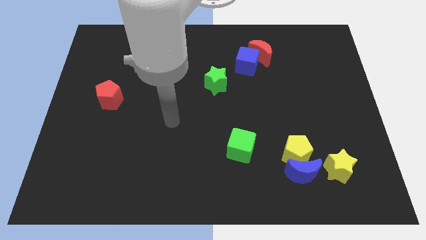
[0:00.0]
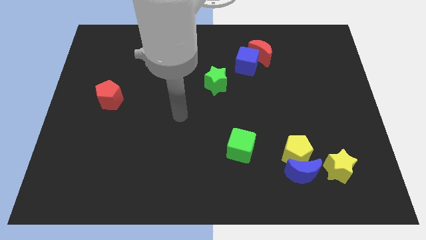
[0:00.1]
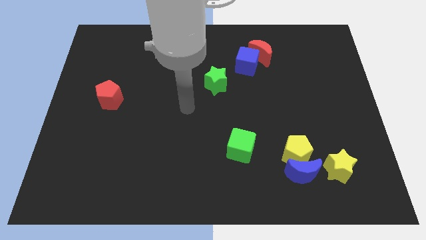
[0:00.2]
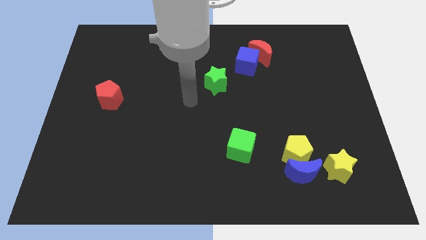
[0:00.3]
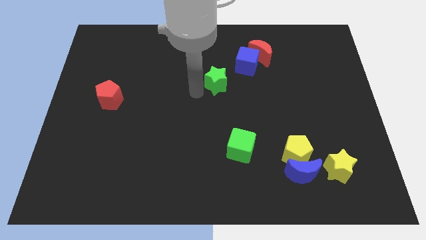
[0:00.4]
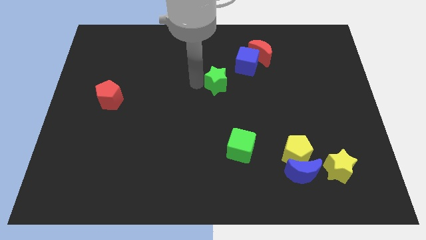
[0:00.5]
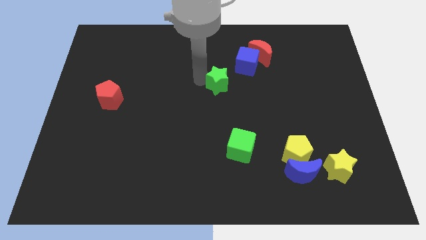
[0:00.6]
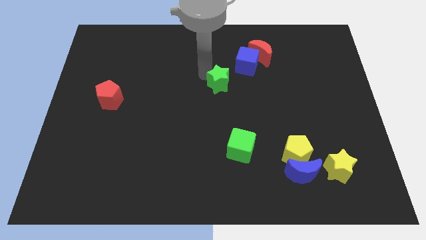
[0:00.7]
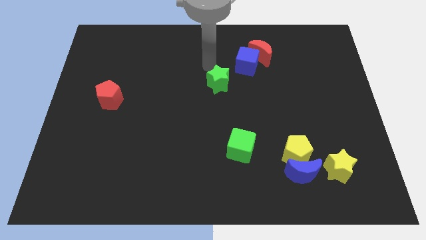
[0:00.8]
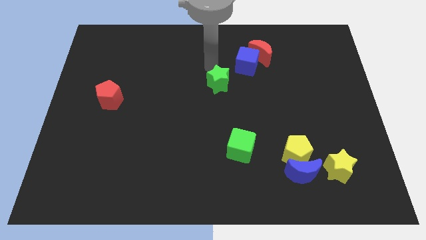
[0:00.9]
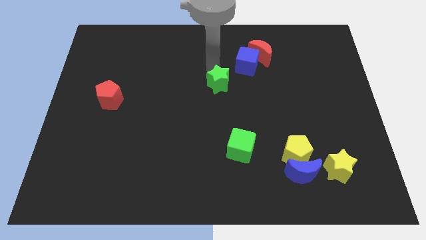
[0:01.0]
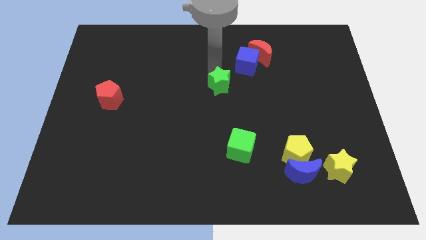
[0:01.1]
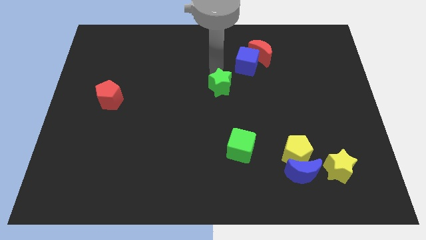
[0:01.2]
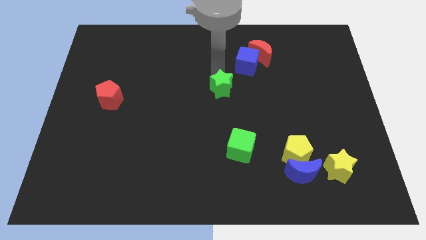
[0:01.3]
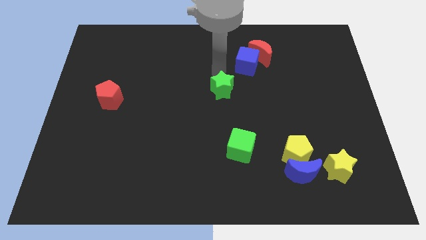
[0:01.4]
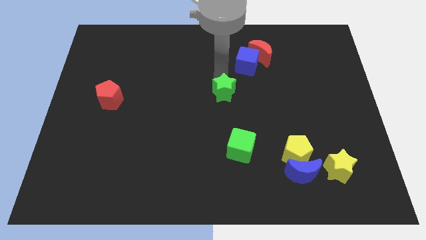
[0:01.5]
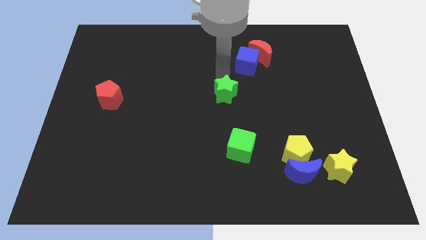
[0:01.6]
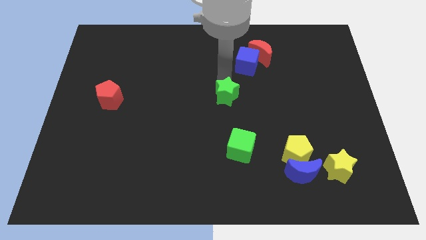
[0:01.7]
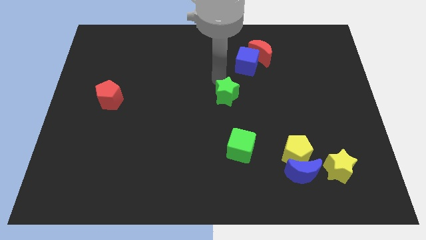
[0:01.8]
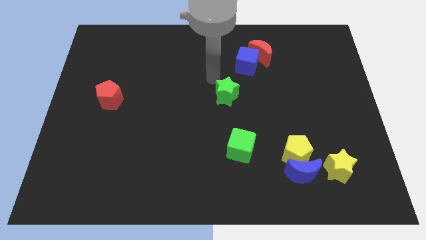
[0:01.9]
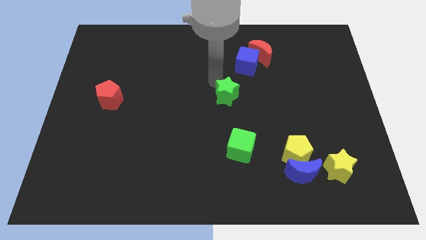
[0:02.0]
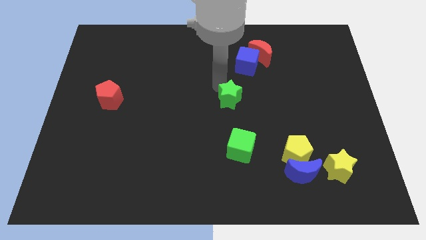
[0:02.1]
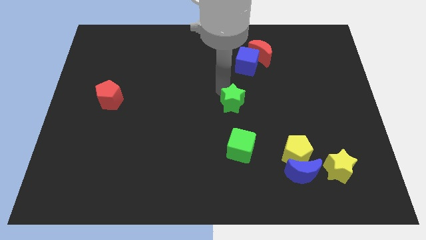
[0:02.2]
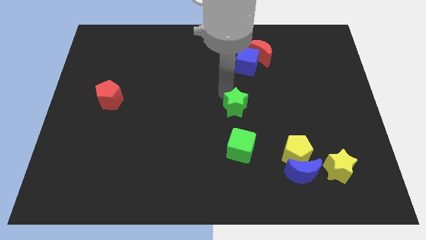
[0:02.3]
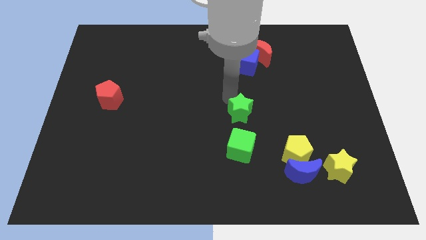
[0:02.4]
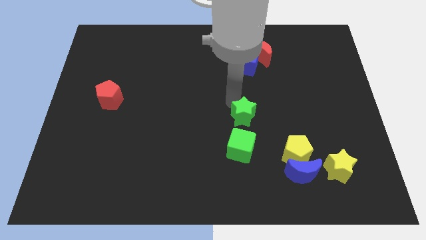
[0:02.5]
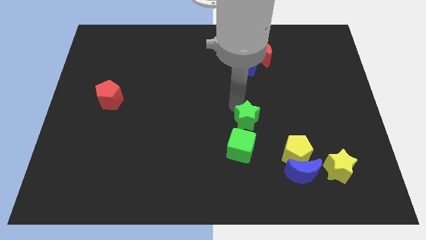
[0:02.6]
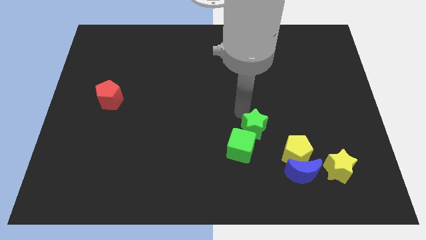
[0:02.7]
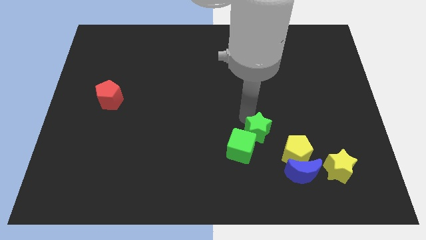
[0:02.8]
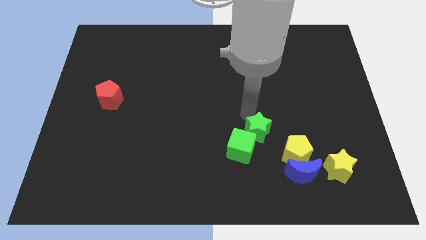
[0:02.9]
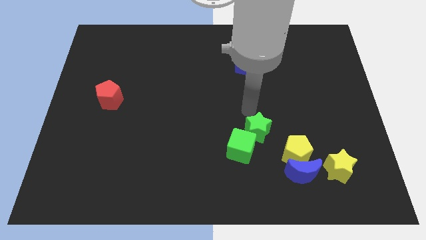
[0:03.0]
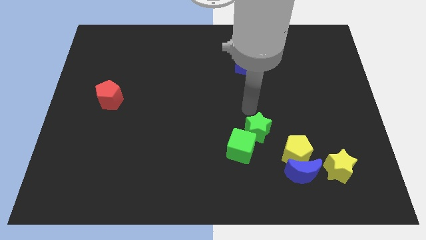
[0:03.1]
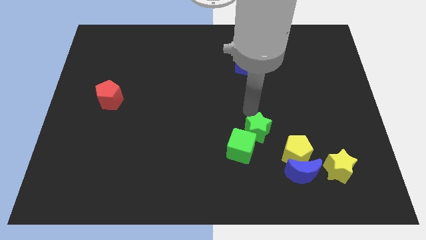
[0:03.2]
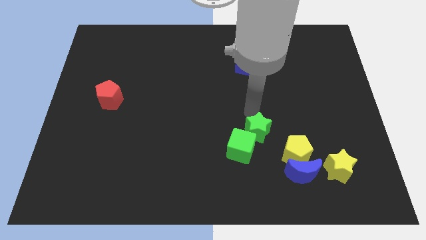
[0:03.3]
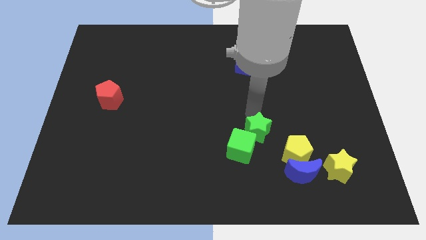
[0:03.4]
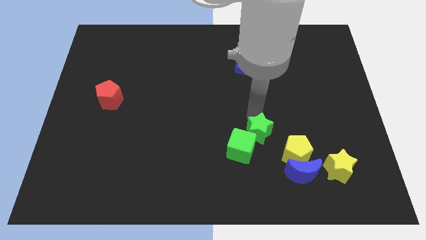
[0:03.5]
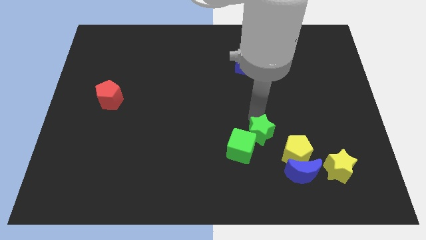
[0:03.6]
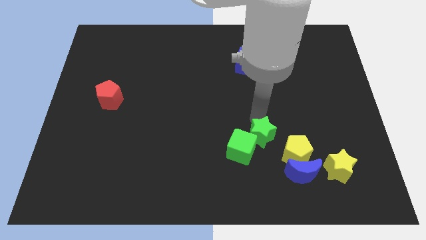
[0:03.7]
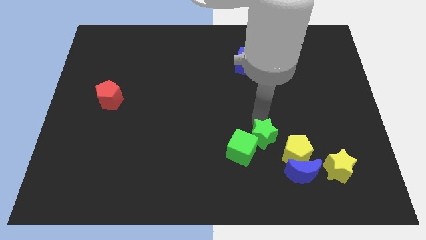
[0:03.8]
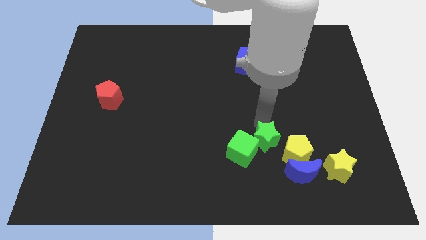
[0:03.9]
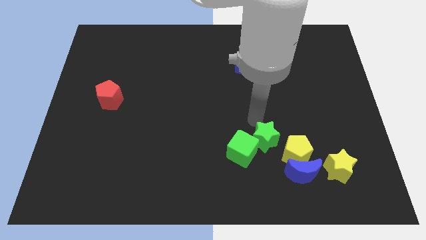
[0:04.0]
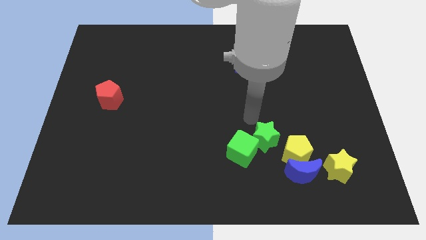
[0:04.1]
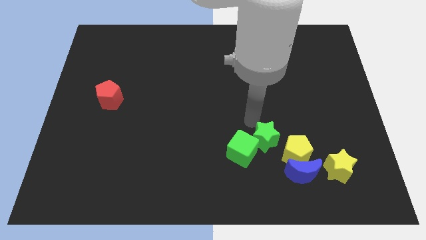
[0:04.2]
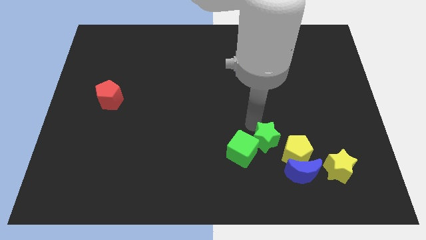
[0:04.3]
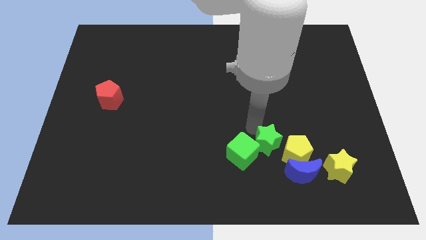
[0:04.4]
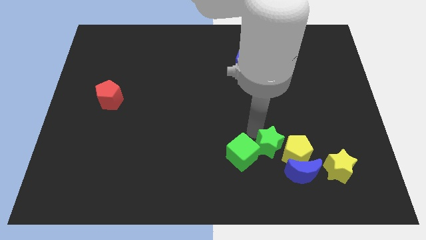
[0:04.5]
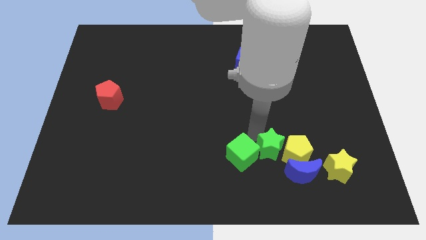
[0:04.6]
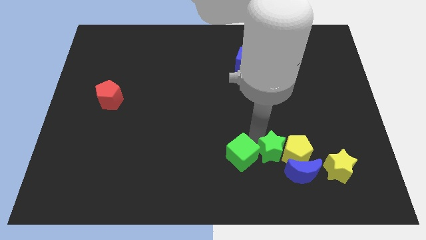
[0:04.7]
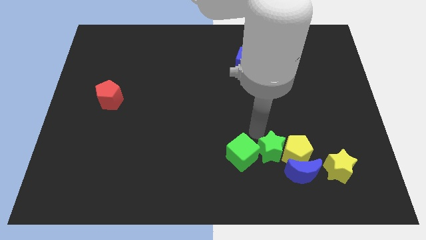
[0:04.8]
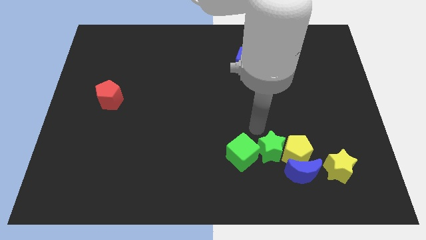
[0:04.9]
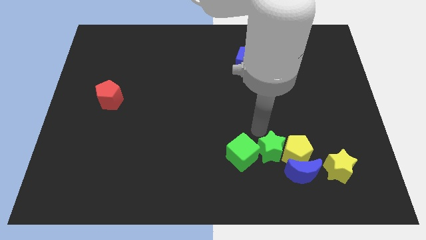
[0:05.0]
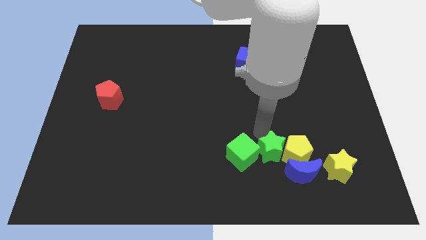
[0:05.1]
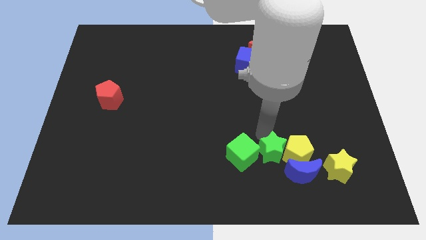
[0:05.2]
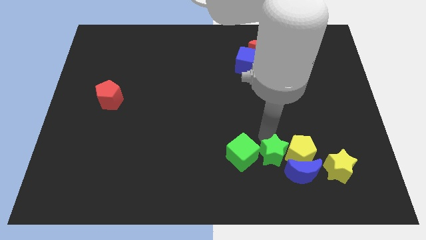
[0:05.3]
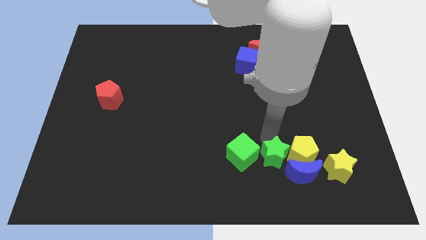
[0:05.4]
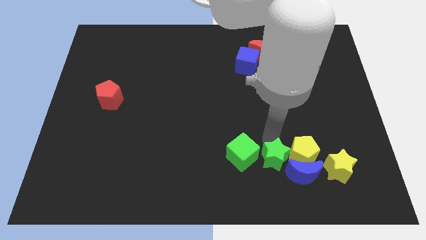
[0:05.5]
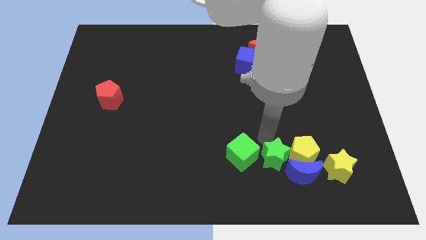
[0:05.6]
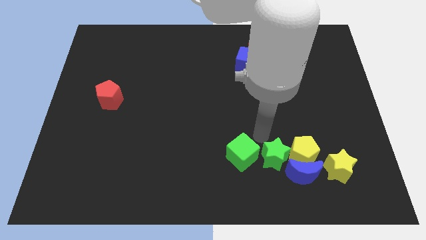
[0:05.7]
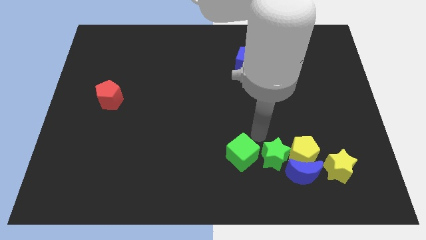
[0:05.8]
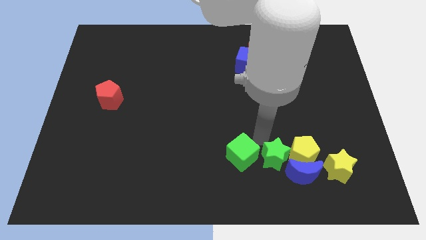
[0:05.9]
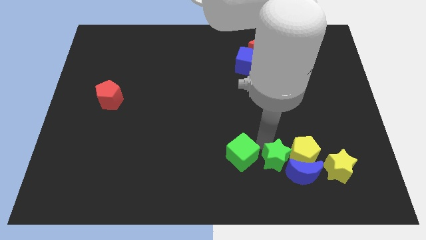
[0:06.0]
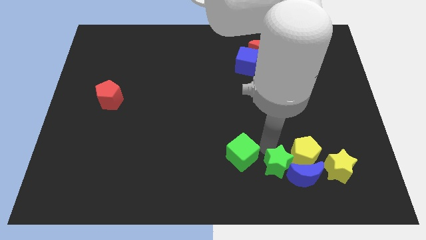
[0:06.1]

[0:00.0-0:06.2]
put the green star to the blue moon

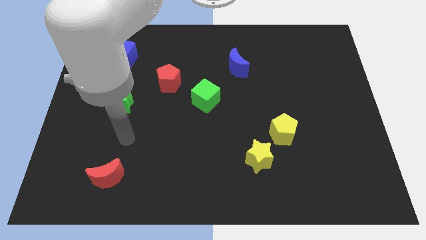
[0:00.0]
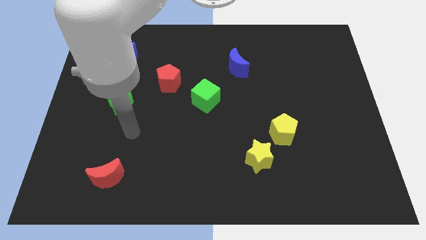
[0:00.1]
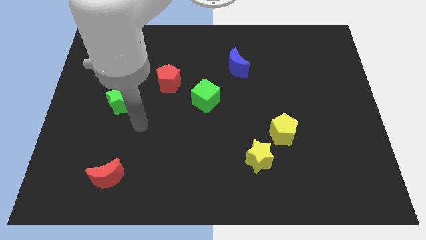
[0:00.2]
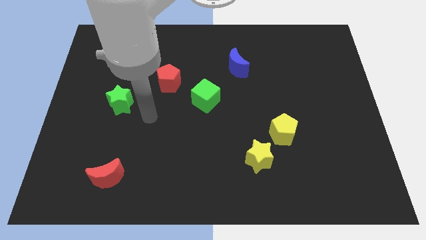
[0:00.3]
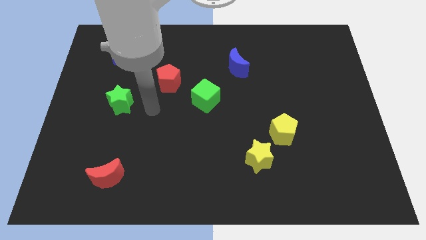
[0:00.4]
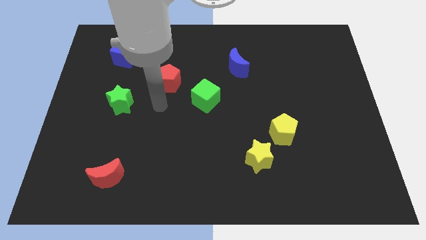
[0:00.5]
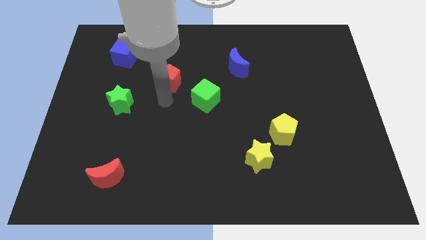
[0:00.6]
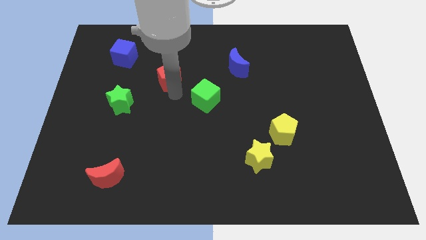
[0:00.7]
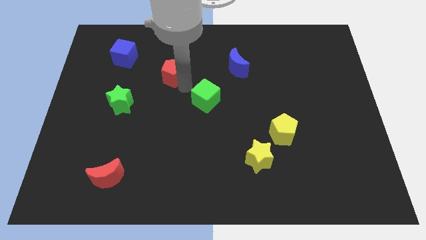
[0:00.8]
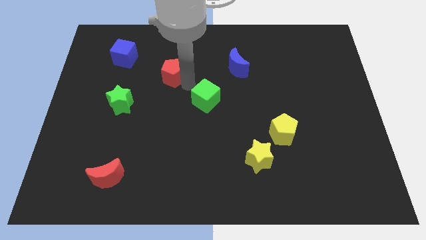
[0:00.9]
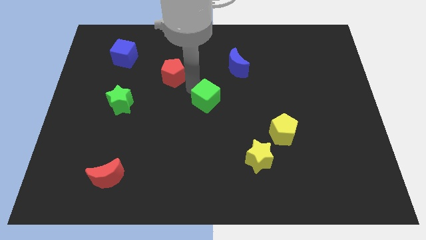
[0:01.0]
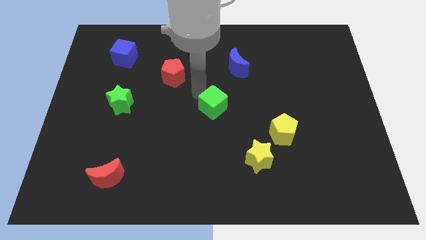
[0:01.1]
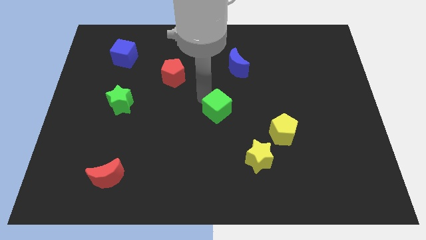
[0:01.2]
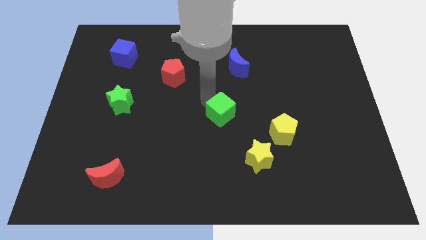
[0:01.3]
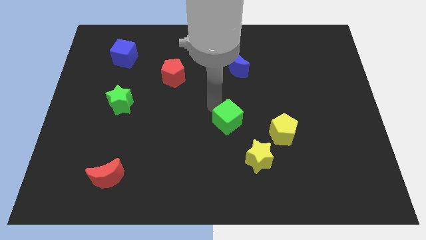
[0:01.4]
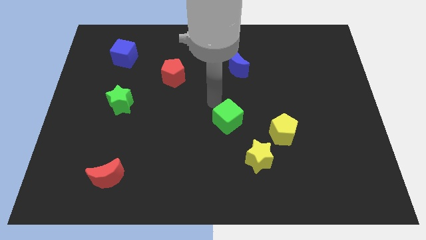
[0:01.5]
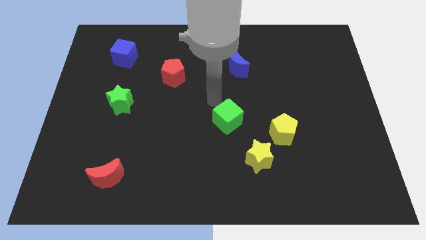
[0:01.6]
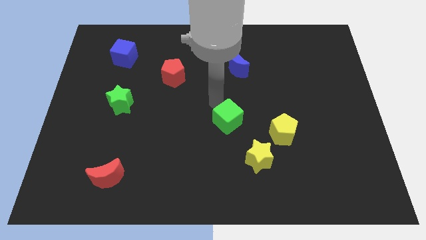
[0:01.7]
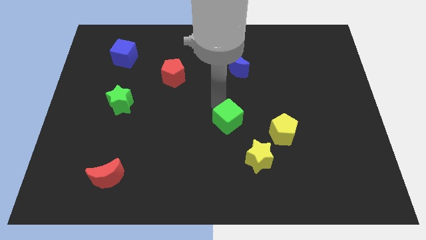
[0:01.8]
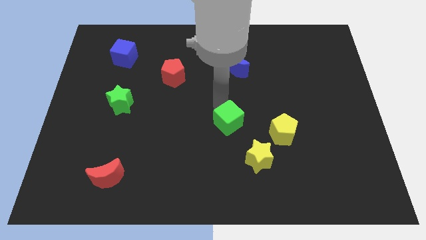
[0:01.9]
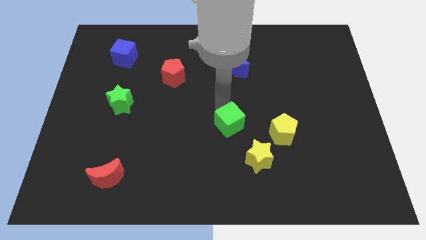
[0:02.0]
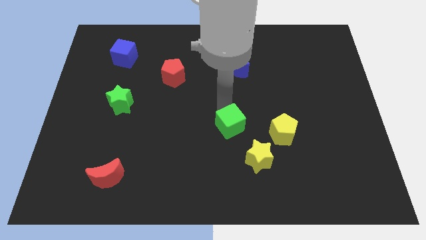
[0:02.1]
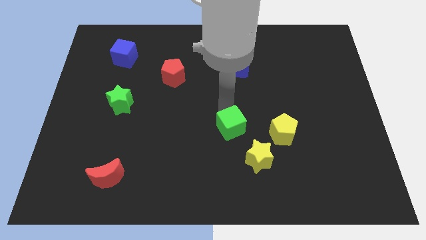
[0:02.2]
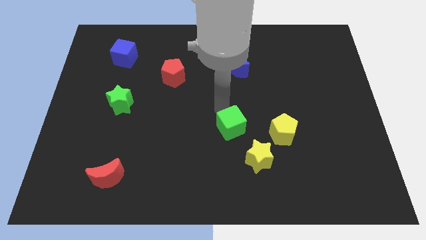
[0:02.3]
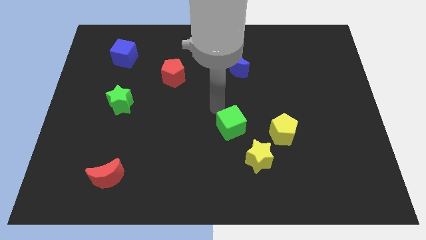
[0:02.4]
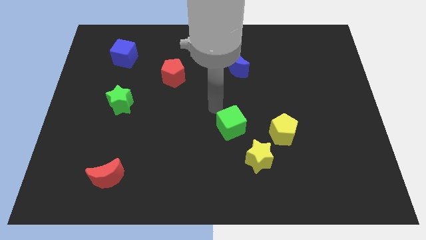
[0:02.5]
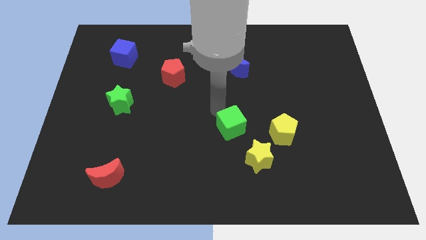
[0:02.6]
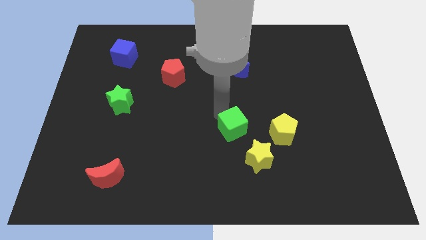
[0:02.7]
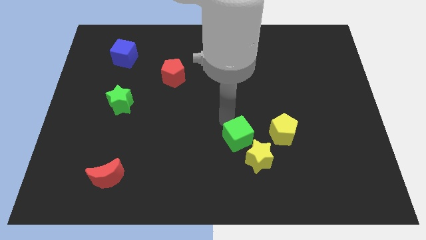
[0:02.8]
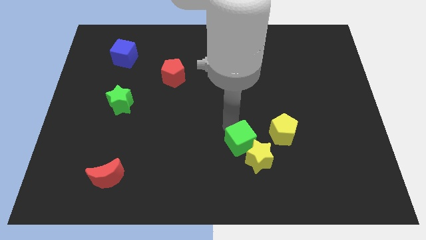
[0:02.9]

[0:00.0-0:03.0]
put the green cube close to the yellow star
